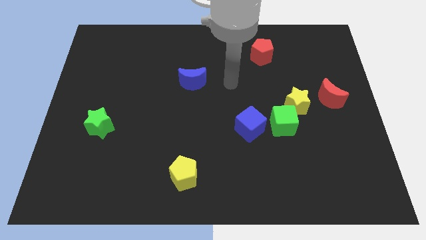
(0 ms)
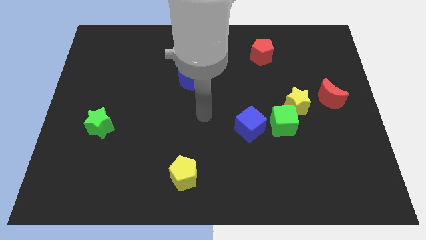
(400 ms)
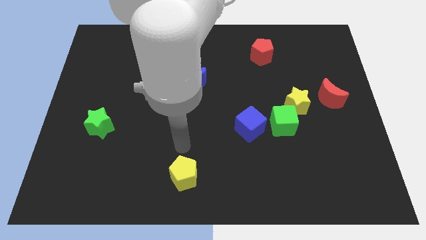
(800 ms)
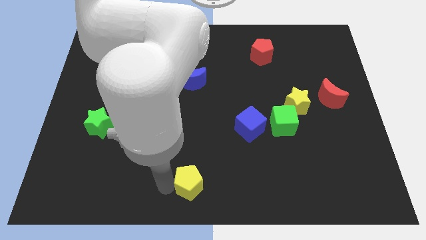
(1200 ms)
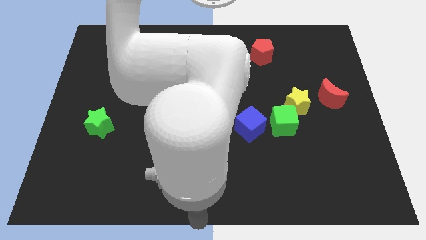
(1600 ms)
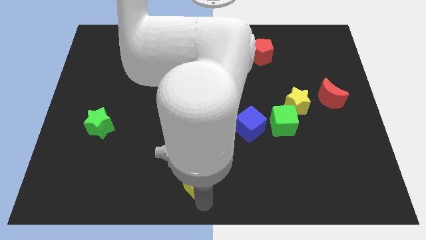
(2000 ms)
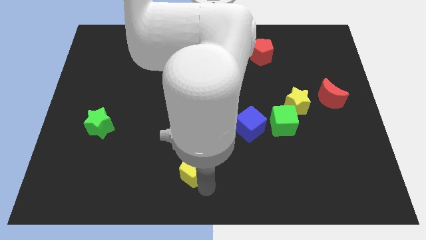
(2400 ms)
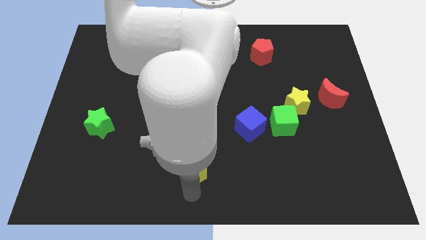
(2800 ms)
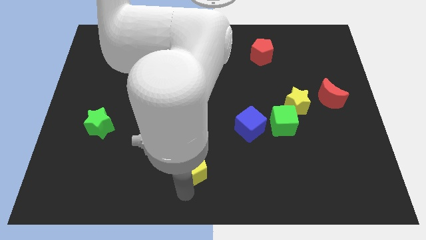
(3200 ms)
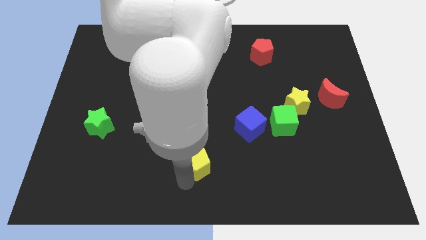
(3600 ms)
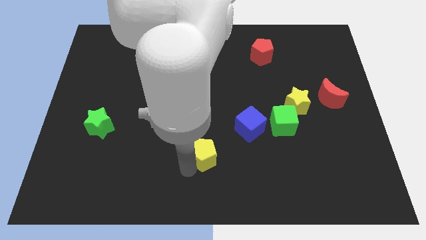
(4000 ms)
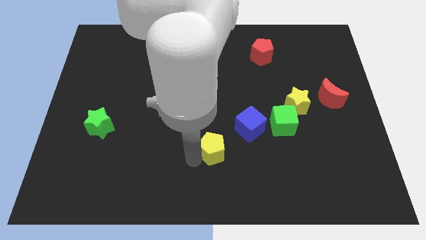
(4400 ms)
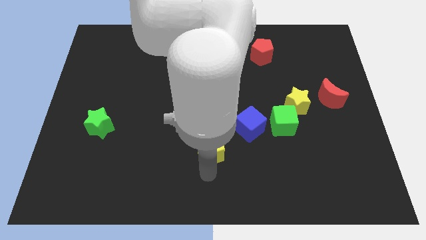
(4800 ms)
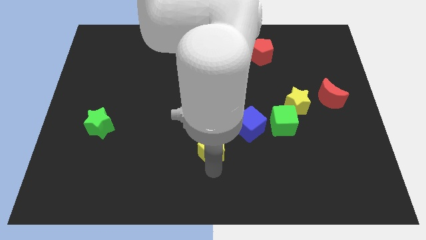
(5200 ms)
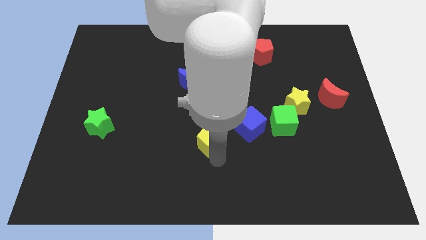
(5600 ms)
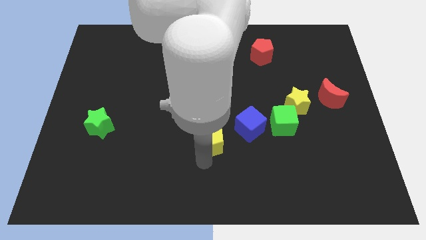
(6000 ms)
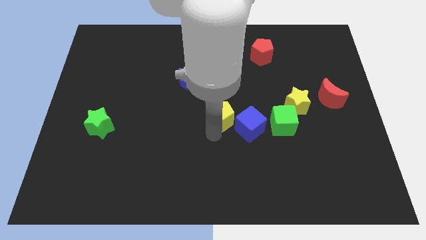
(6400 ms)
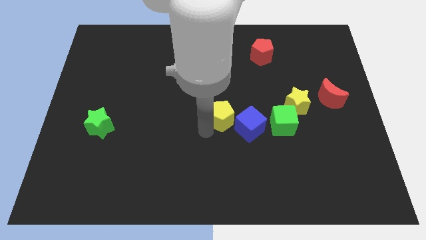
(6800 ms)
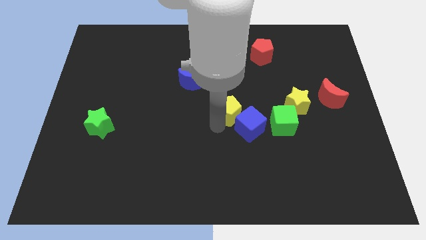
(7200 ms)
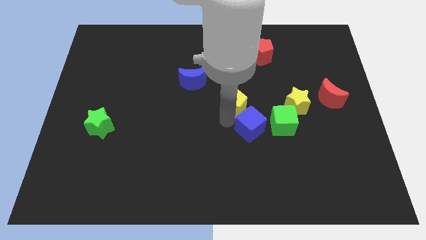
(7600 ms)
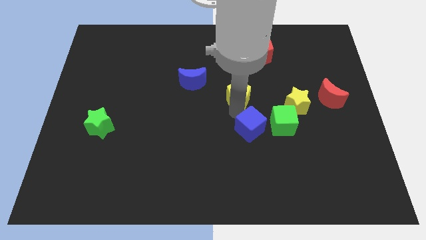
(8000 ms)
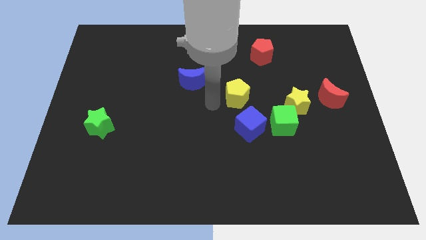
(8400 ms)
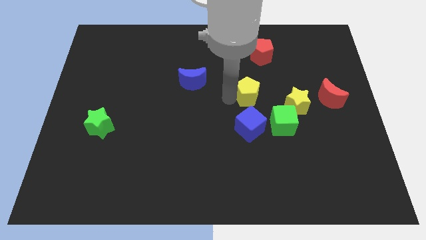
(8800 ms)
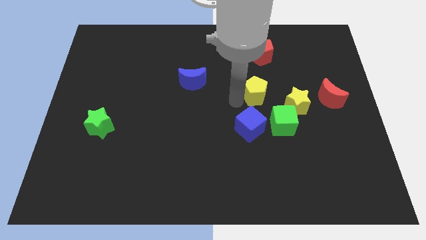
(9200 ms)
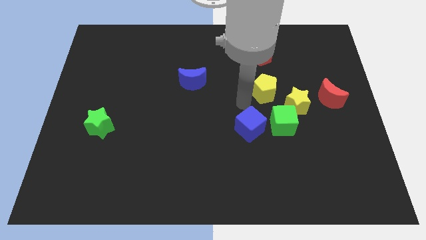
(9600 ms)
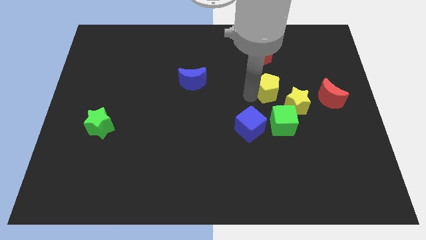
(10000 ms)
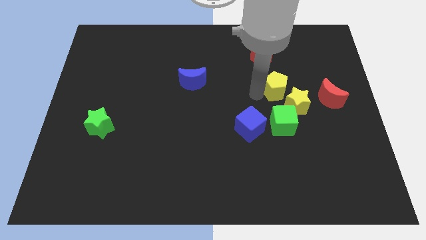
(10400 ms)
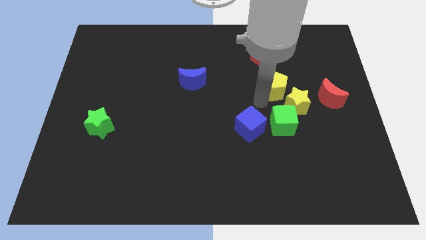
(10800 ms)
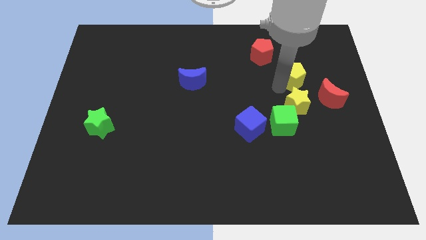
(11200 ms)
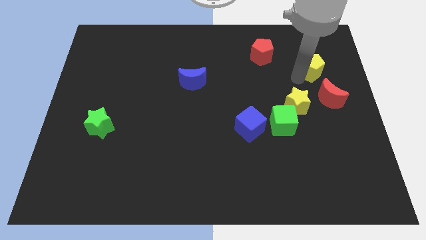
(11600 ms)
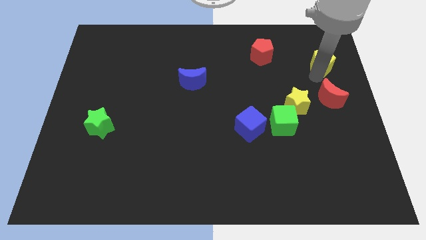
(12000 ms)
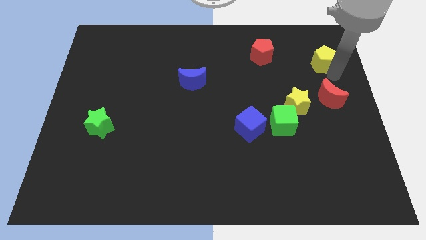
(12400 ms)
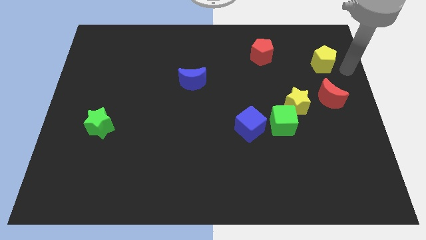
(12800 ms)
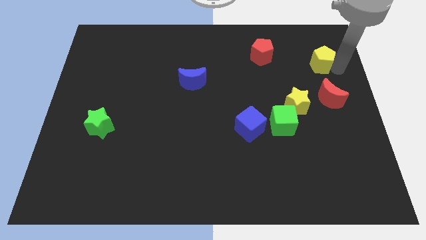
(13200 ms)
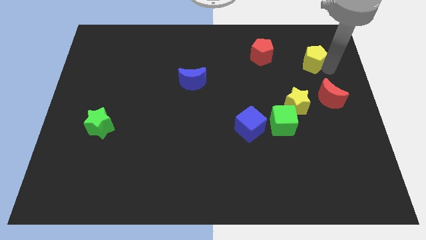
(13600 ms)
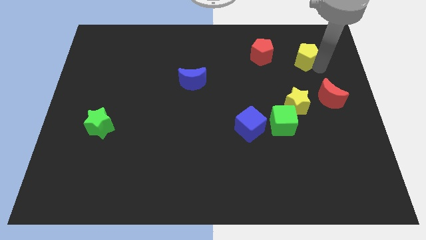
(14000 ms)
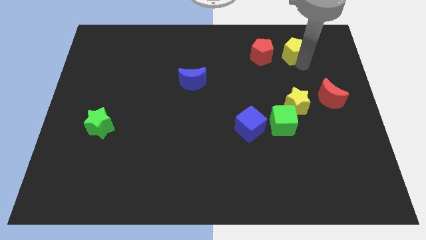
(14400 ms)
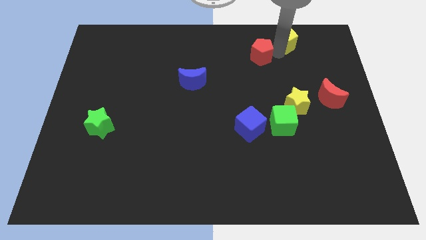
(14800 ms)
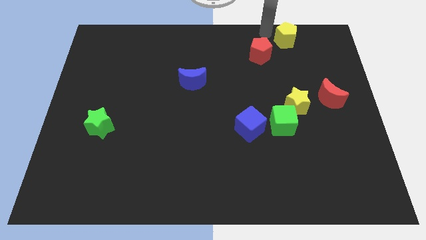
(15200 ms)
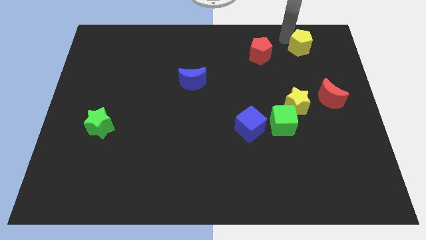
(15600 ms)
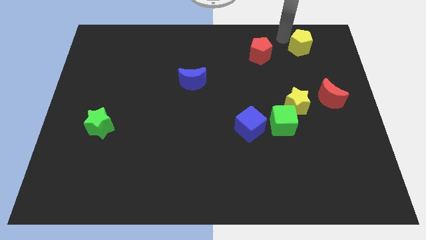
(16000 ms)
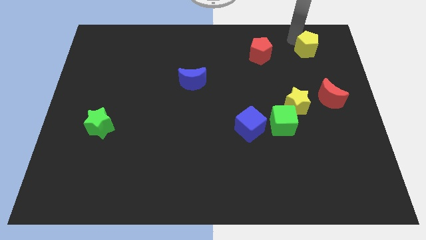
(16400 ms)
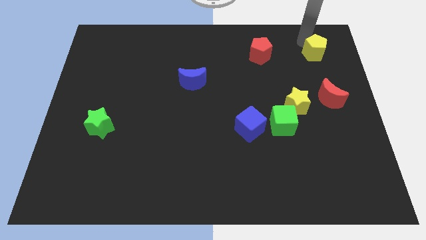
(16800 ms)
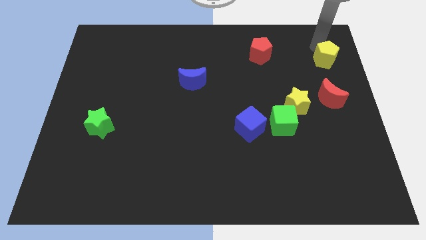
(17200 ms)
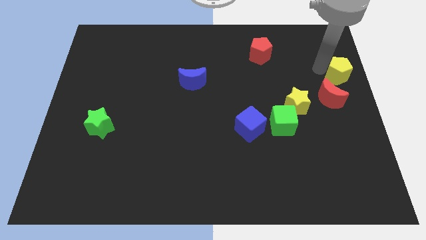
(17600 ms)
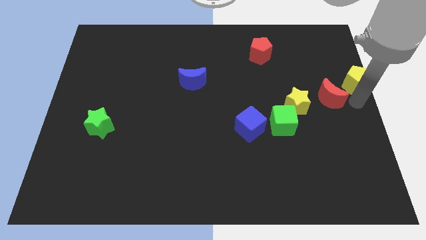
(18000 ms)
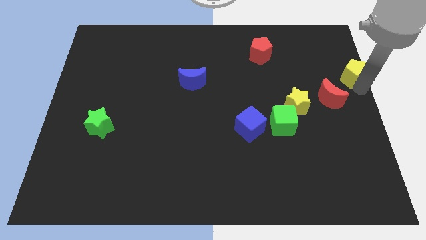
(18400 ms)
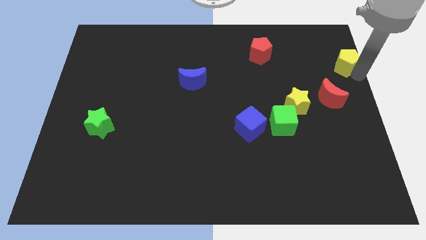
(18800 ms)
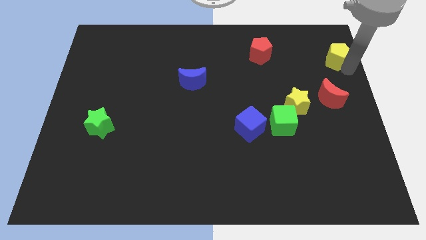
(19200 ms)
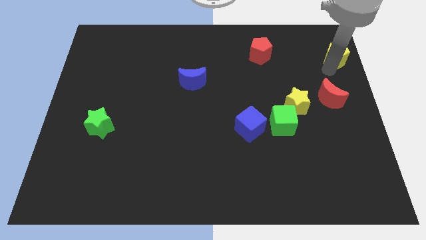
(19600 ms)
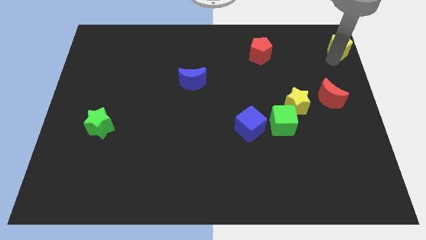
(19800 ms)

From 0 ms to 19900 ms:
put the yellow pentagon to the top right

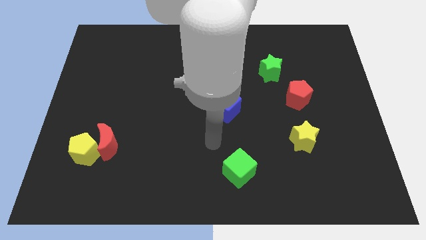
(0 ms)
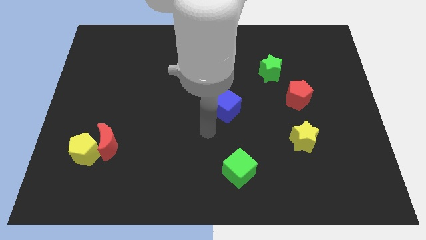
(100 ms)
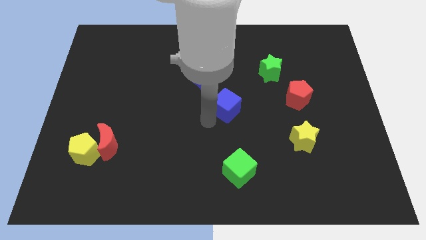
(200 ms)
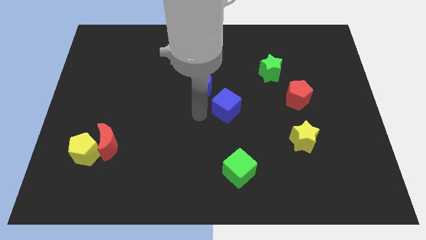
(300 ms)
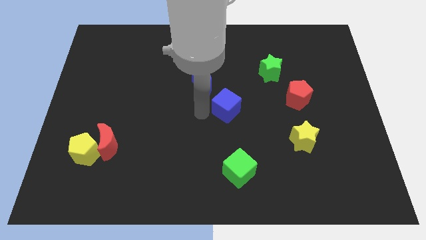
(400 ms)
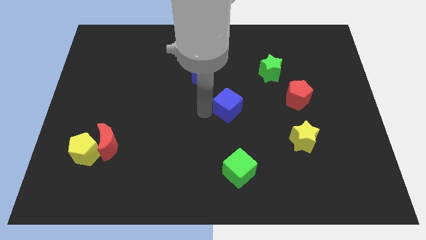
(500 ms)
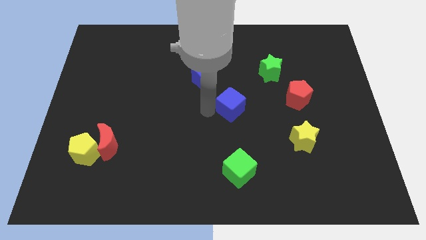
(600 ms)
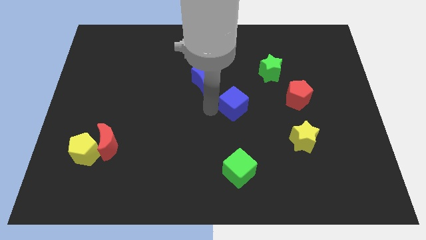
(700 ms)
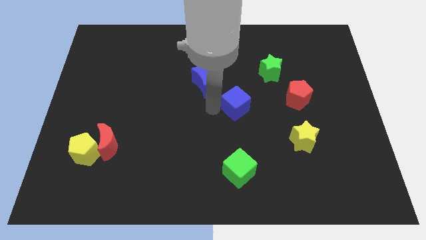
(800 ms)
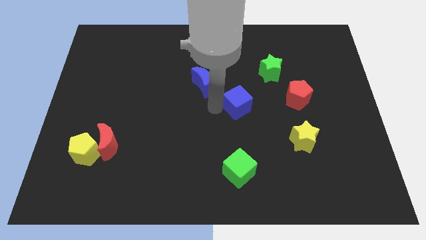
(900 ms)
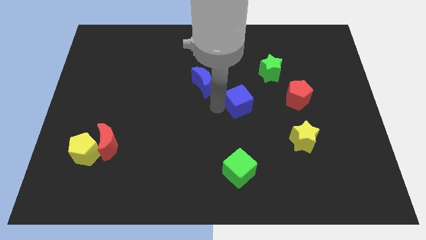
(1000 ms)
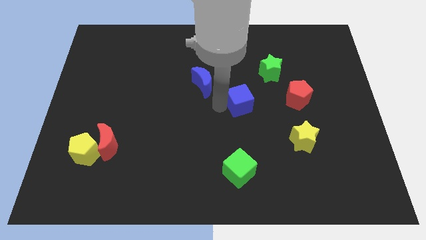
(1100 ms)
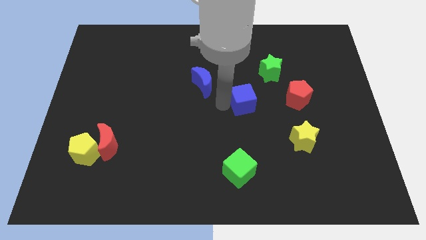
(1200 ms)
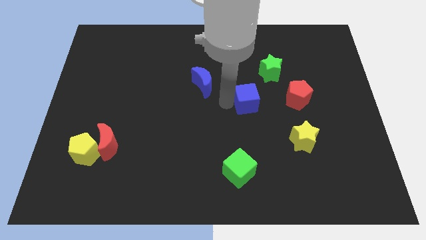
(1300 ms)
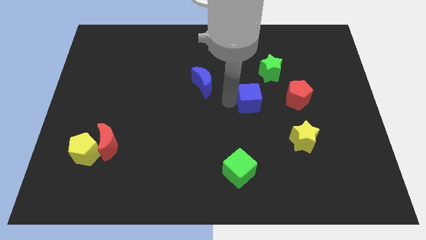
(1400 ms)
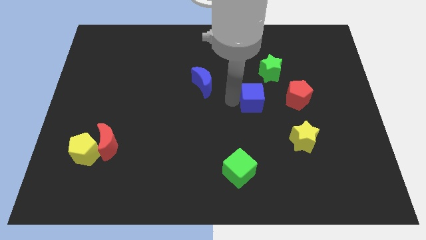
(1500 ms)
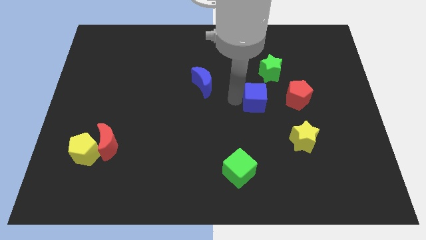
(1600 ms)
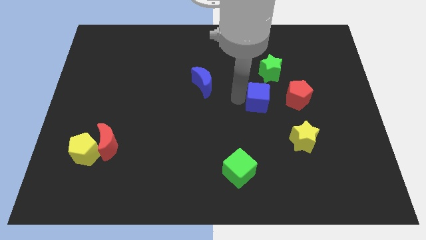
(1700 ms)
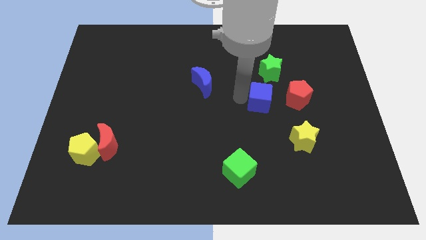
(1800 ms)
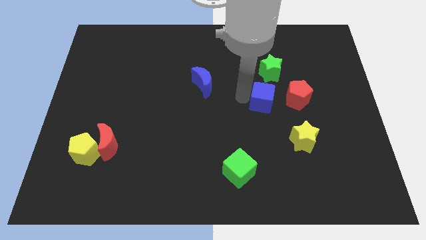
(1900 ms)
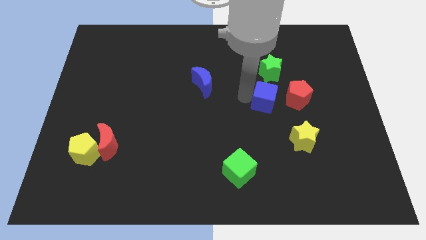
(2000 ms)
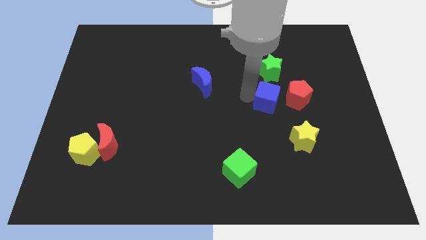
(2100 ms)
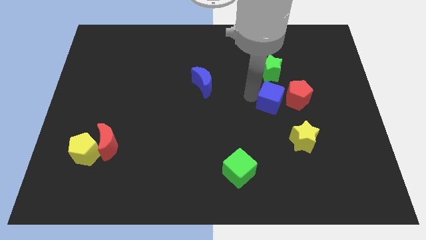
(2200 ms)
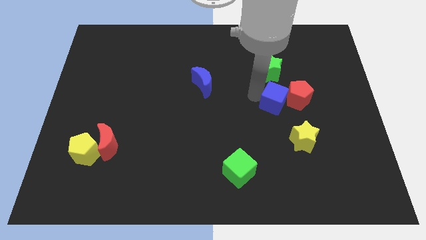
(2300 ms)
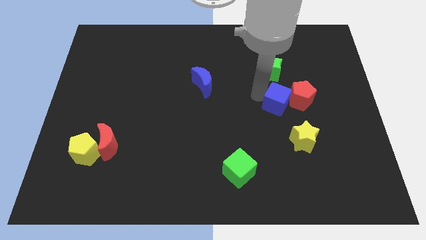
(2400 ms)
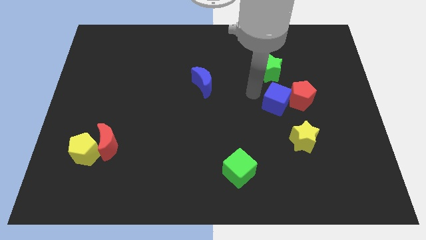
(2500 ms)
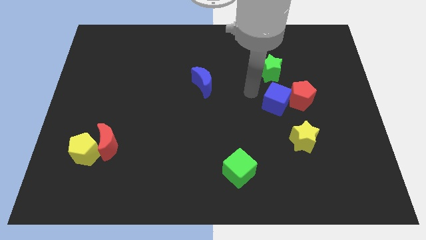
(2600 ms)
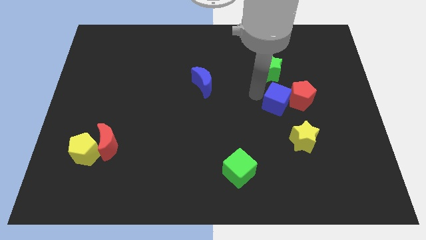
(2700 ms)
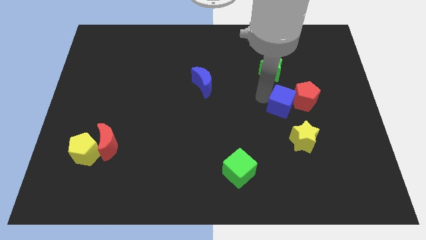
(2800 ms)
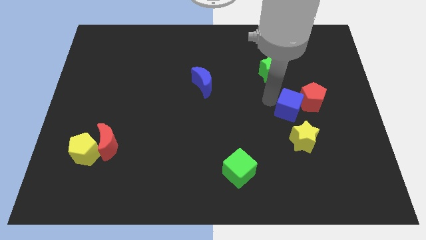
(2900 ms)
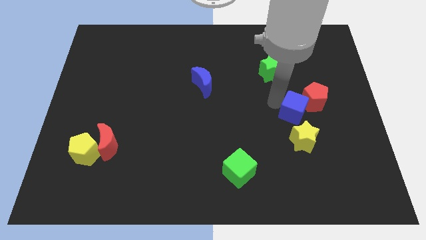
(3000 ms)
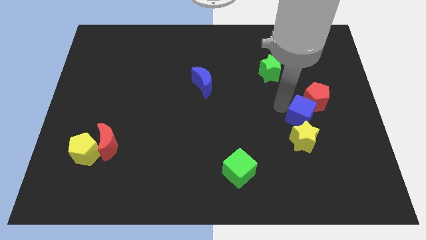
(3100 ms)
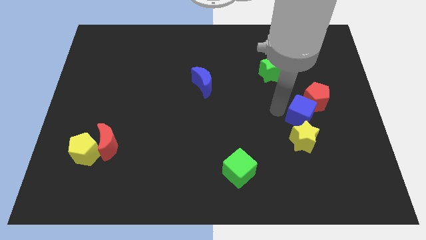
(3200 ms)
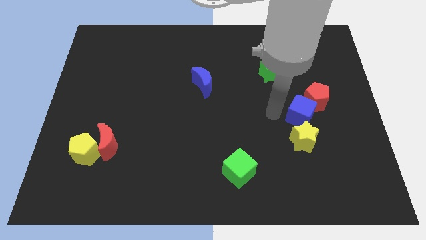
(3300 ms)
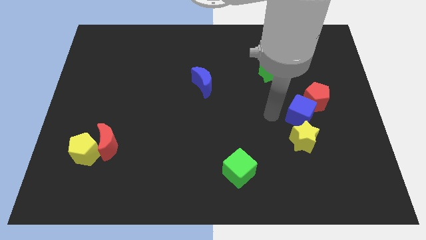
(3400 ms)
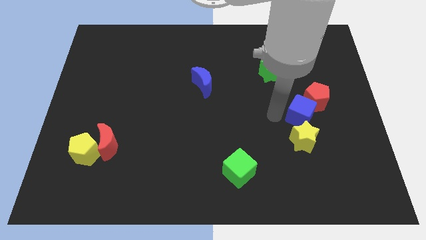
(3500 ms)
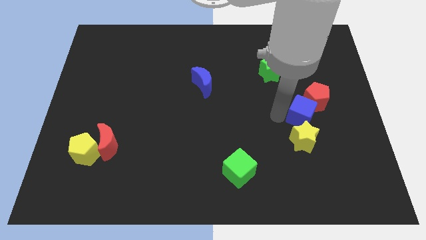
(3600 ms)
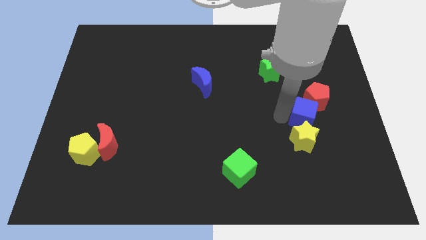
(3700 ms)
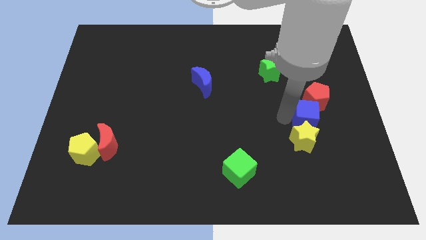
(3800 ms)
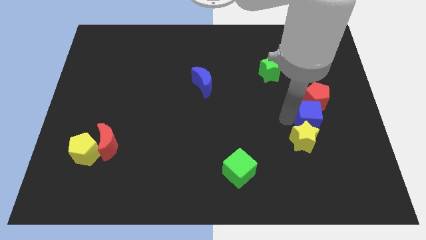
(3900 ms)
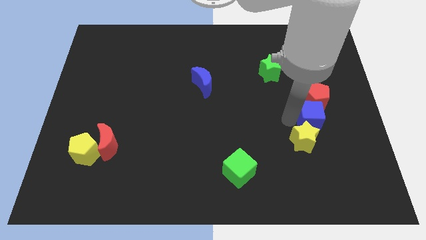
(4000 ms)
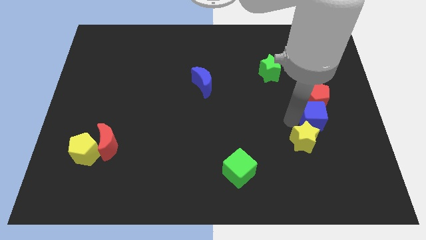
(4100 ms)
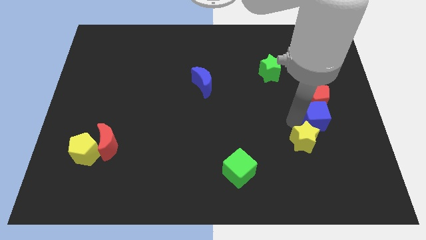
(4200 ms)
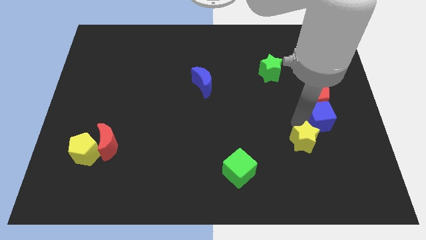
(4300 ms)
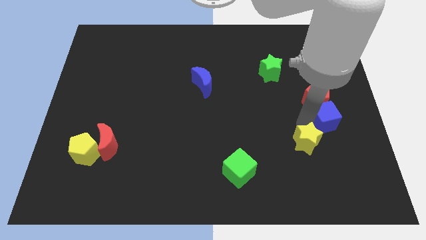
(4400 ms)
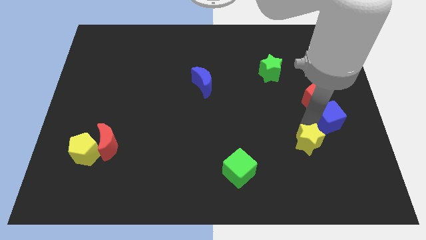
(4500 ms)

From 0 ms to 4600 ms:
put the blue cube to the right side of the board
